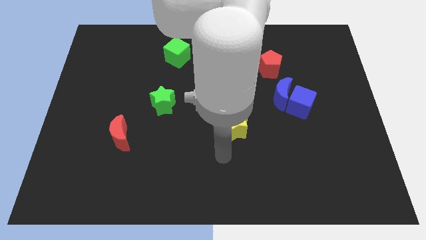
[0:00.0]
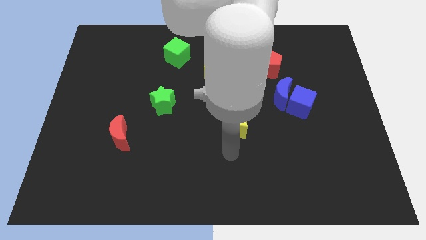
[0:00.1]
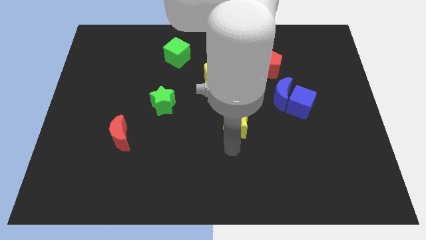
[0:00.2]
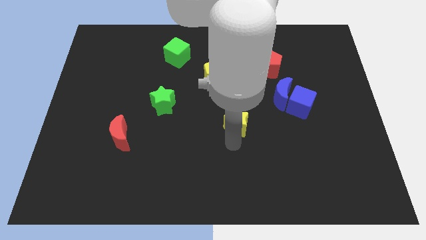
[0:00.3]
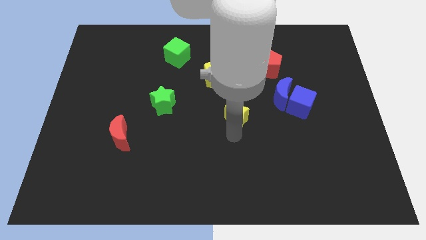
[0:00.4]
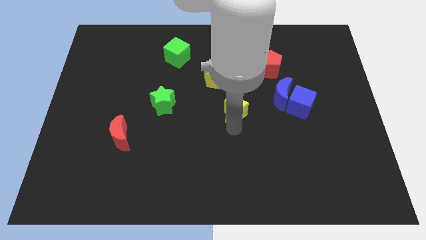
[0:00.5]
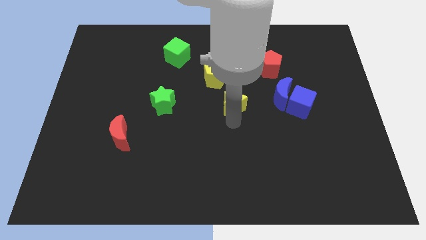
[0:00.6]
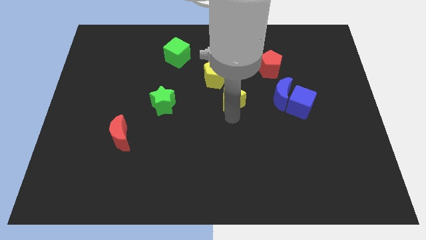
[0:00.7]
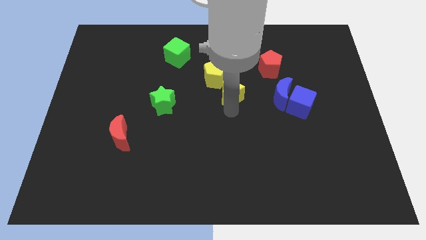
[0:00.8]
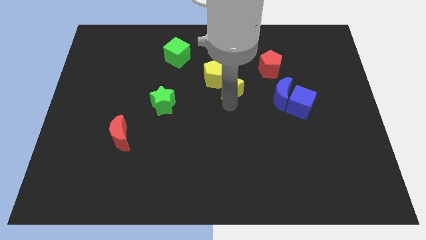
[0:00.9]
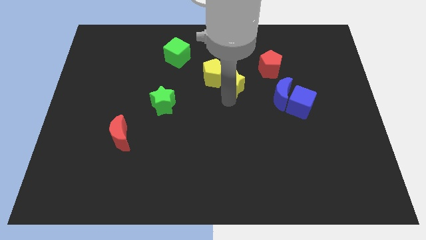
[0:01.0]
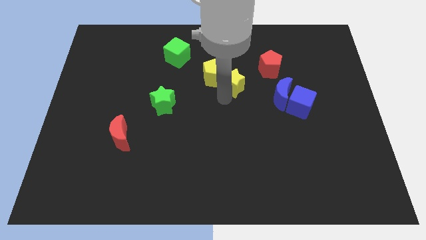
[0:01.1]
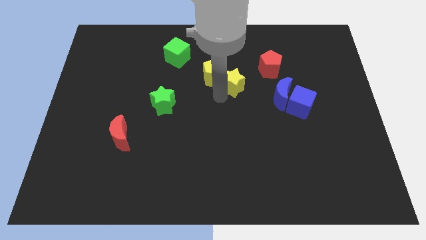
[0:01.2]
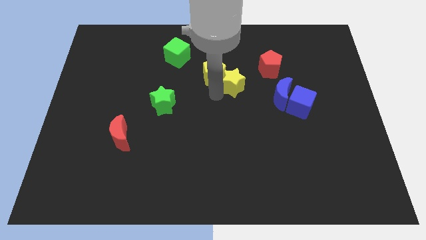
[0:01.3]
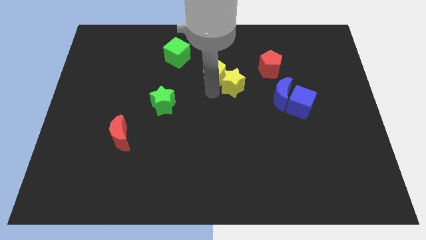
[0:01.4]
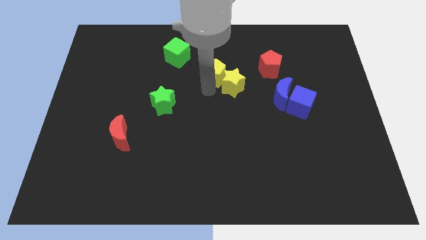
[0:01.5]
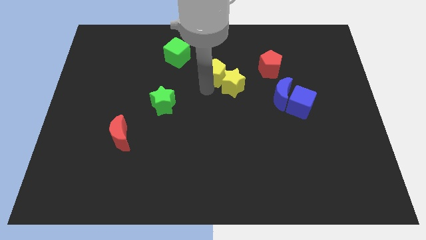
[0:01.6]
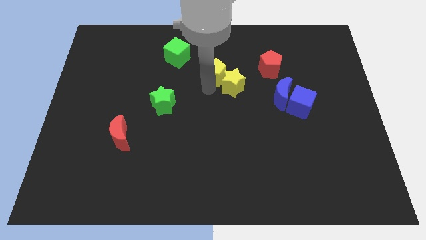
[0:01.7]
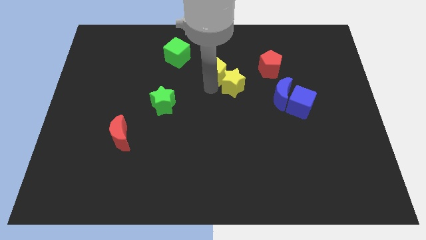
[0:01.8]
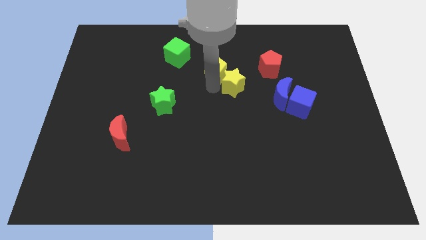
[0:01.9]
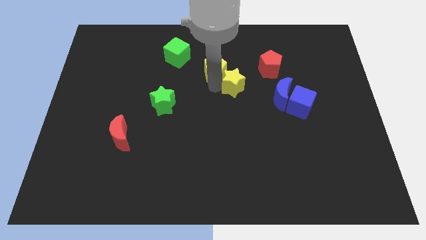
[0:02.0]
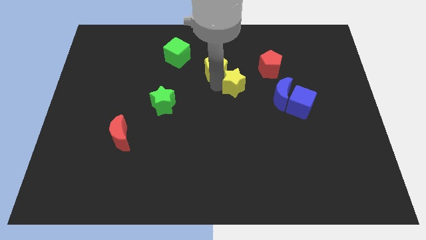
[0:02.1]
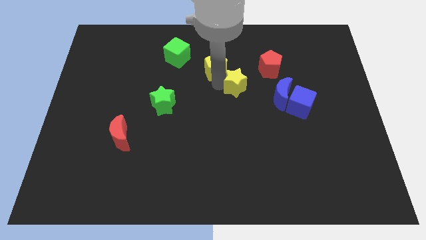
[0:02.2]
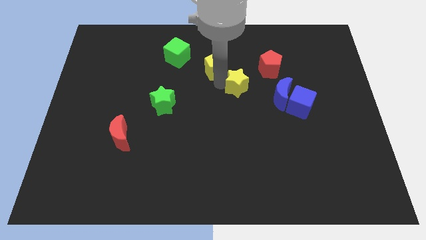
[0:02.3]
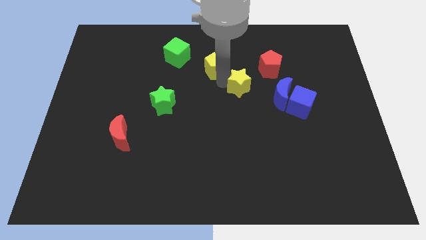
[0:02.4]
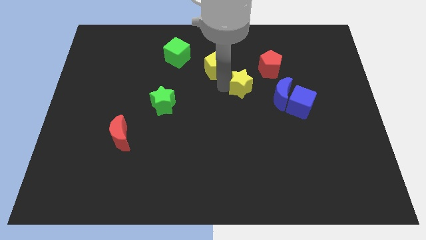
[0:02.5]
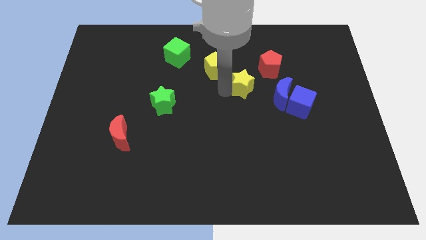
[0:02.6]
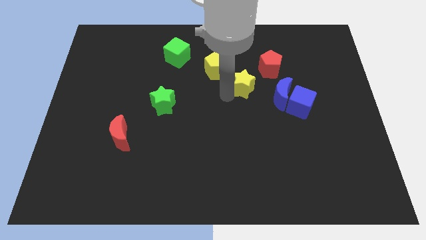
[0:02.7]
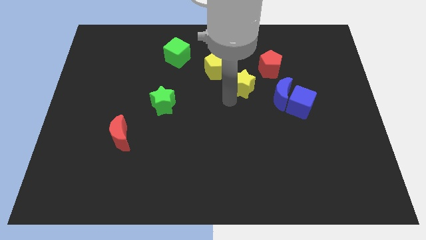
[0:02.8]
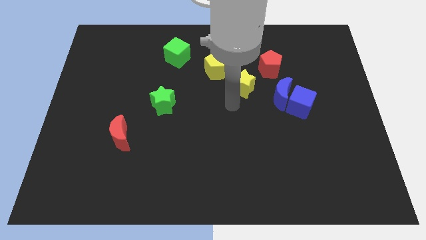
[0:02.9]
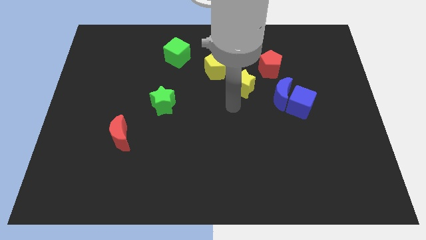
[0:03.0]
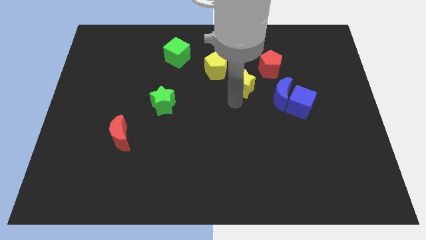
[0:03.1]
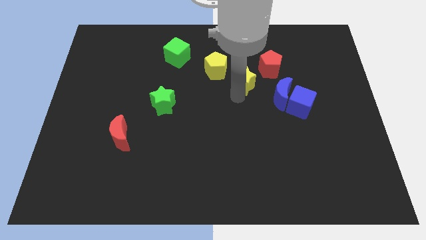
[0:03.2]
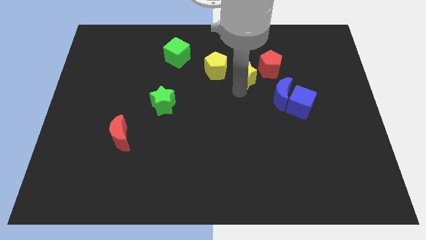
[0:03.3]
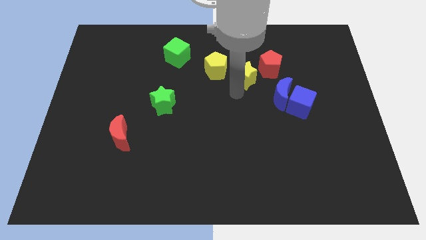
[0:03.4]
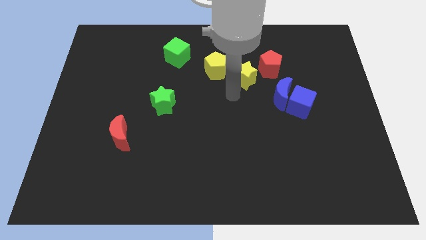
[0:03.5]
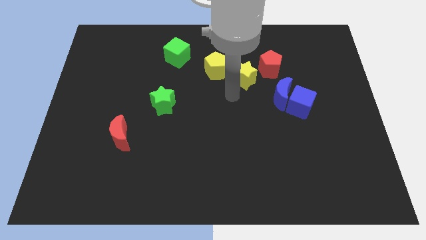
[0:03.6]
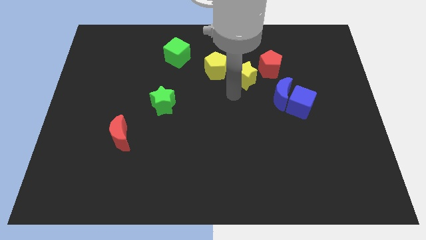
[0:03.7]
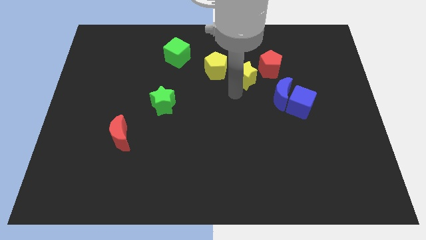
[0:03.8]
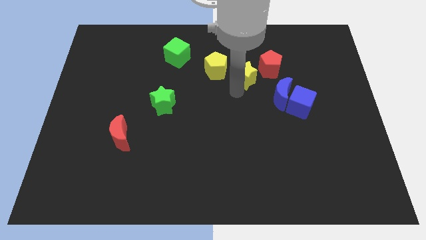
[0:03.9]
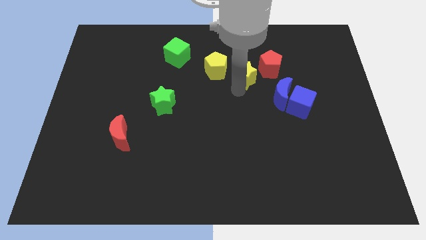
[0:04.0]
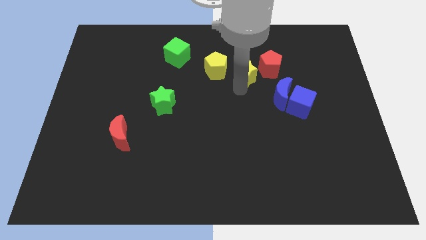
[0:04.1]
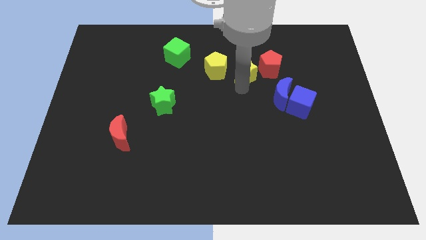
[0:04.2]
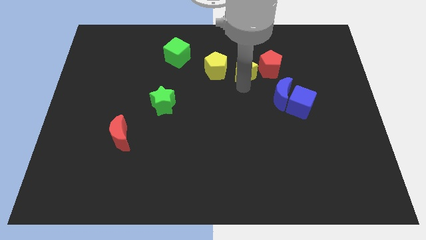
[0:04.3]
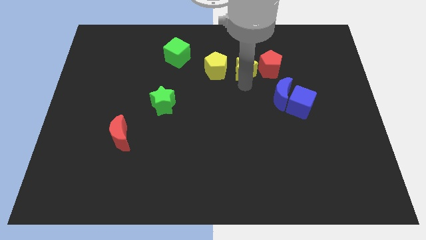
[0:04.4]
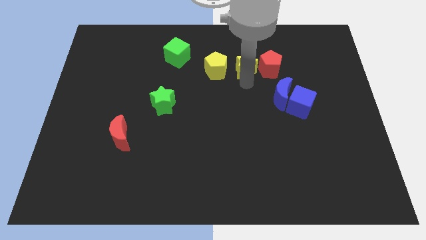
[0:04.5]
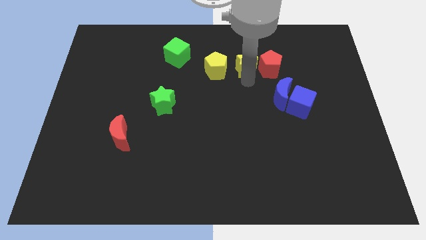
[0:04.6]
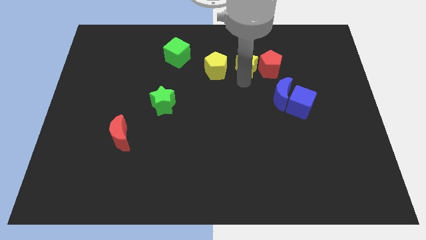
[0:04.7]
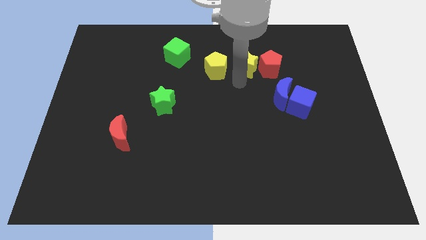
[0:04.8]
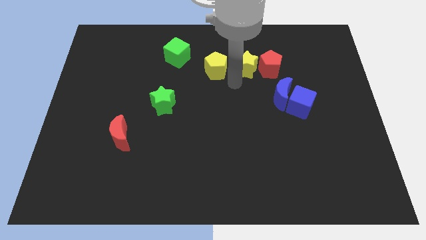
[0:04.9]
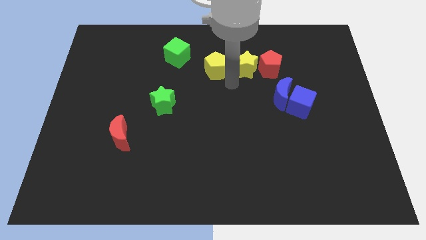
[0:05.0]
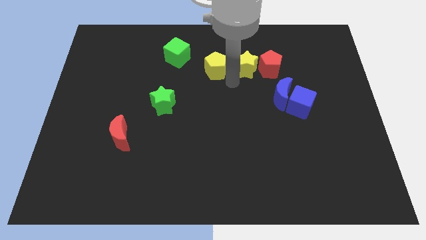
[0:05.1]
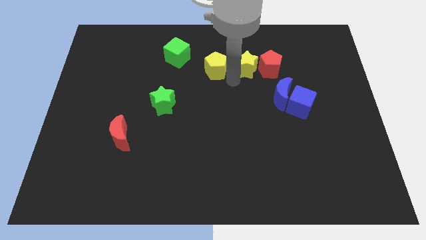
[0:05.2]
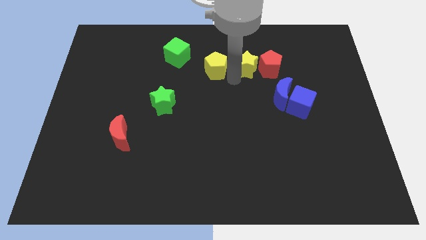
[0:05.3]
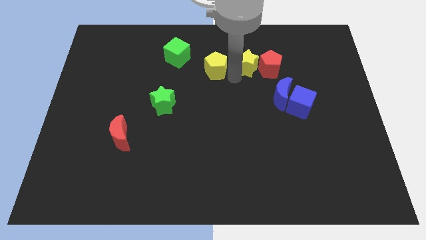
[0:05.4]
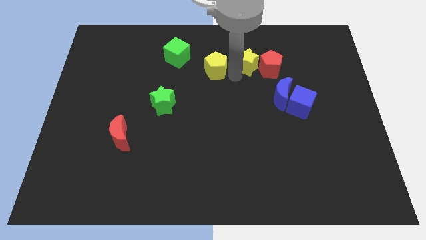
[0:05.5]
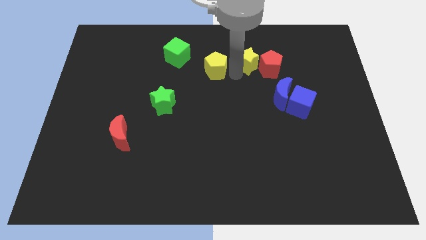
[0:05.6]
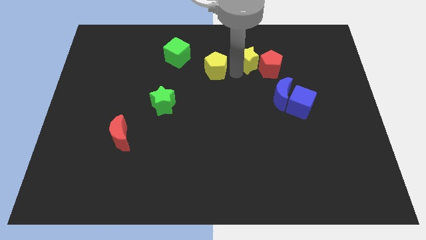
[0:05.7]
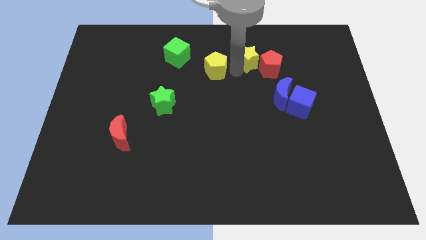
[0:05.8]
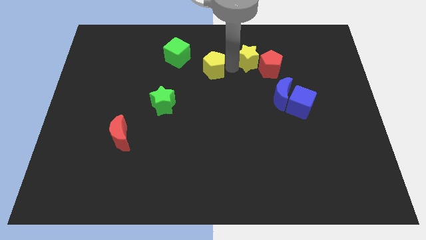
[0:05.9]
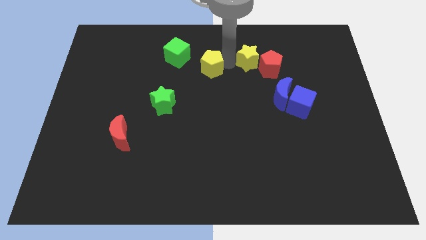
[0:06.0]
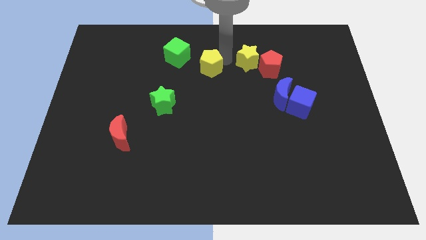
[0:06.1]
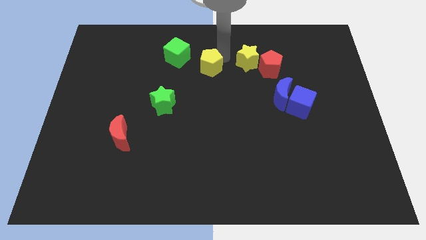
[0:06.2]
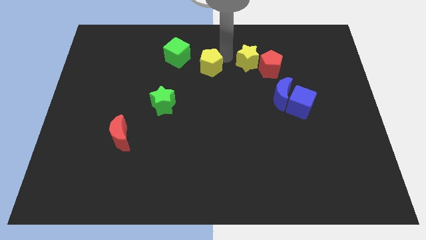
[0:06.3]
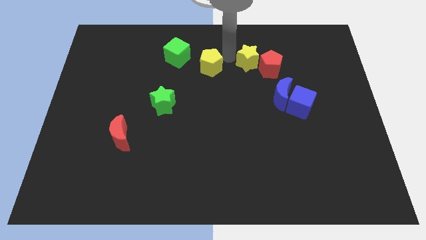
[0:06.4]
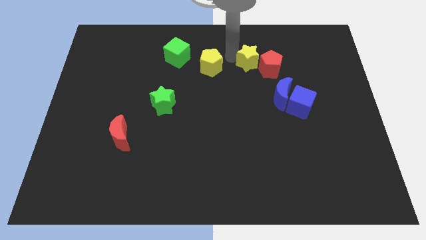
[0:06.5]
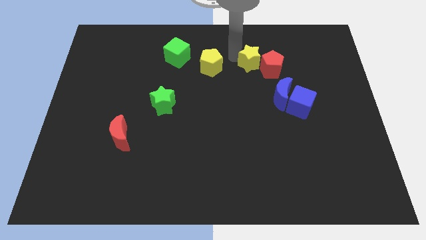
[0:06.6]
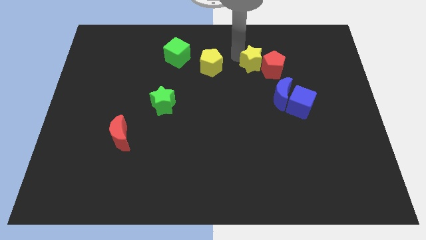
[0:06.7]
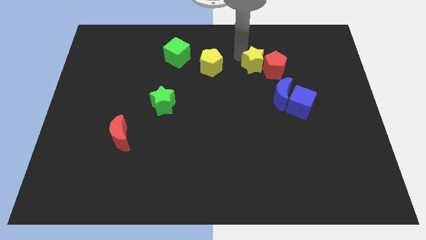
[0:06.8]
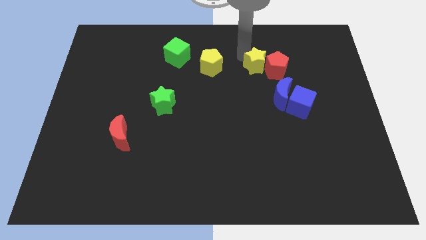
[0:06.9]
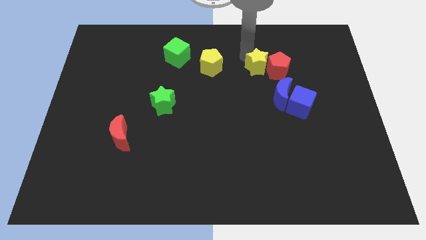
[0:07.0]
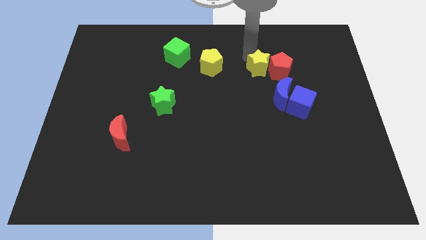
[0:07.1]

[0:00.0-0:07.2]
push the yellow star to the top of the blue moon

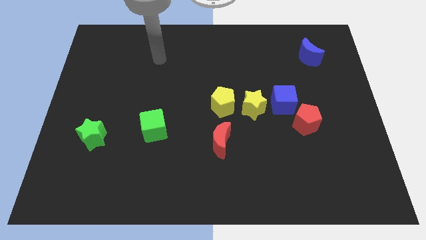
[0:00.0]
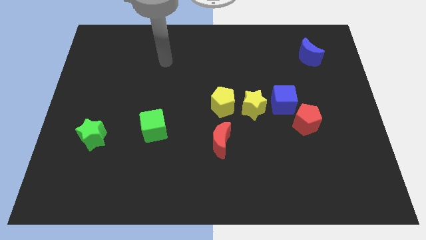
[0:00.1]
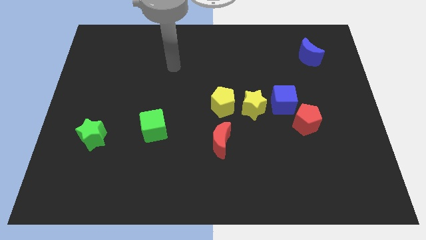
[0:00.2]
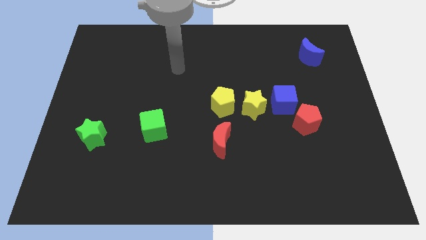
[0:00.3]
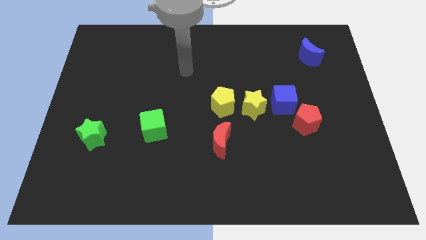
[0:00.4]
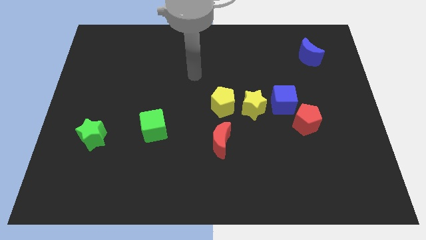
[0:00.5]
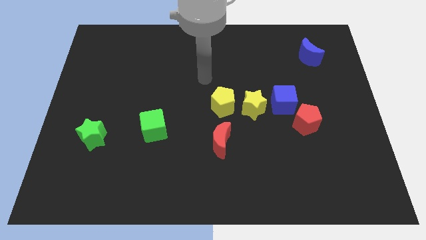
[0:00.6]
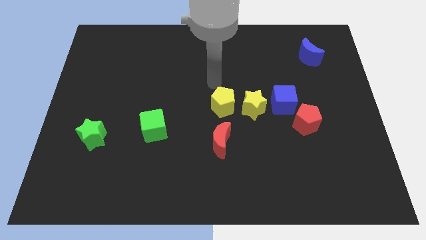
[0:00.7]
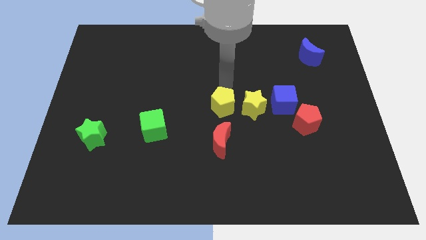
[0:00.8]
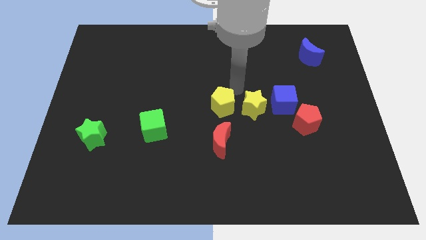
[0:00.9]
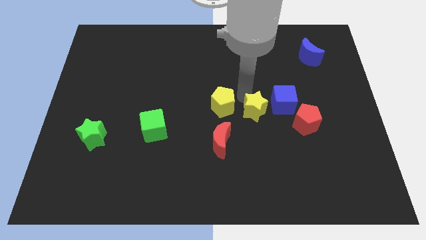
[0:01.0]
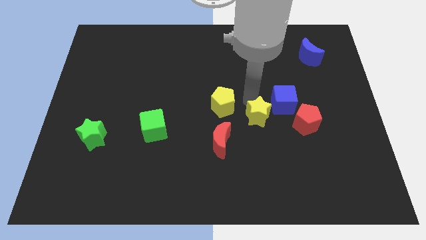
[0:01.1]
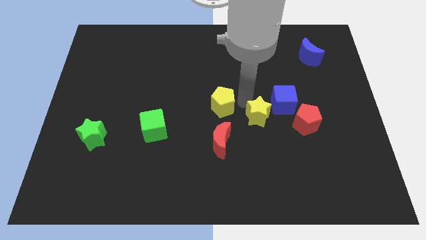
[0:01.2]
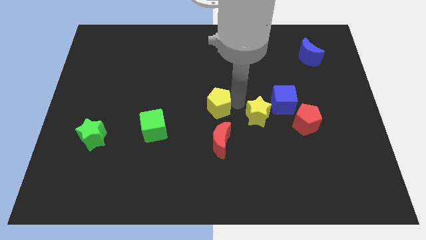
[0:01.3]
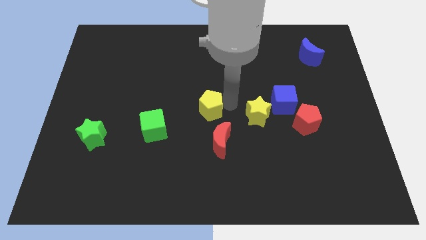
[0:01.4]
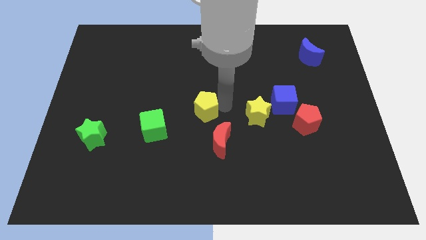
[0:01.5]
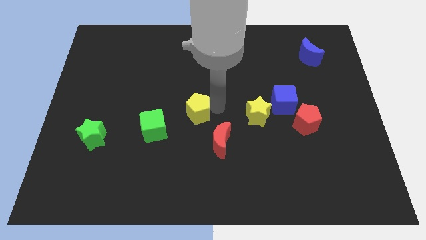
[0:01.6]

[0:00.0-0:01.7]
put the yellow pentagon to the top right of the green cube
